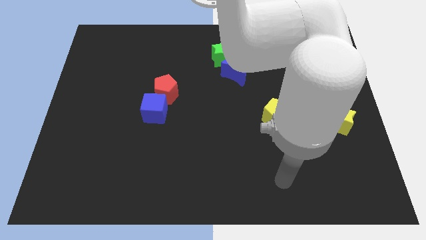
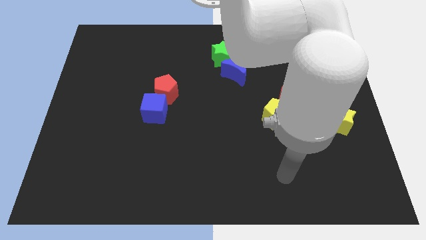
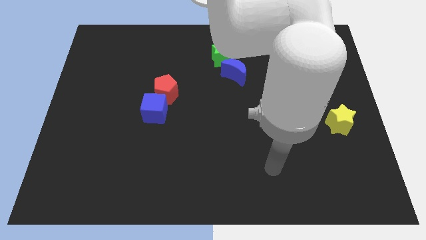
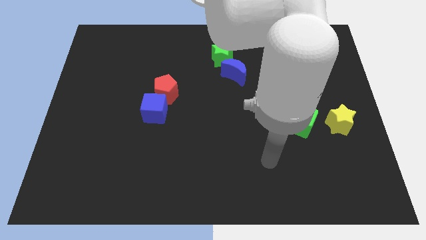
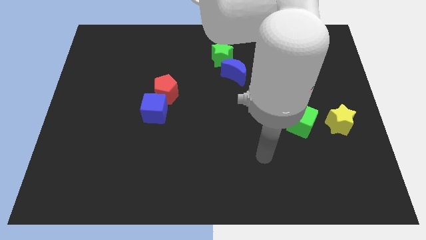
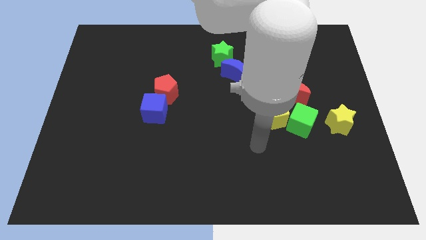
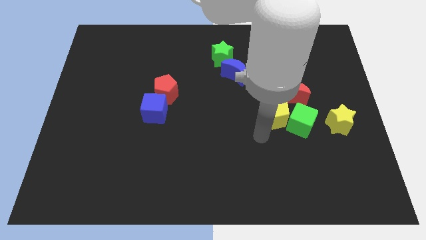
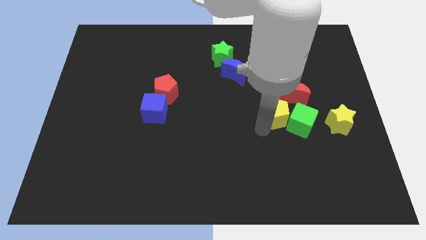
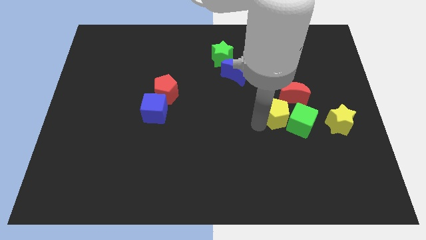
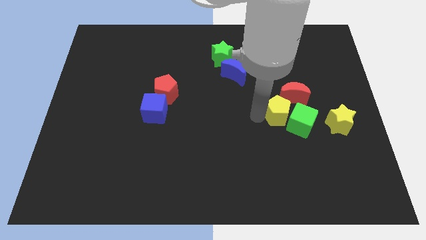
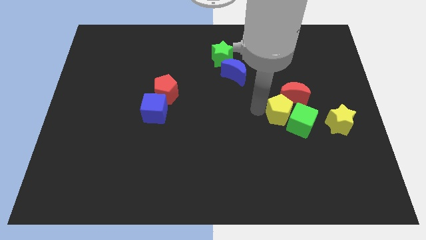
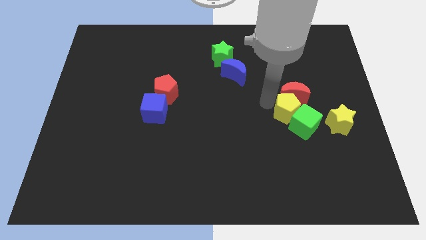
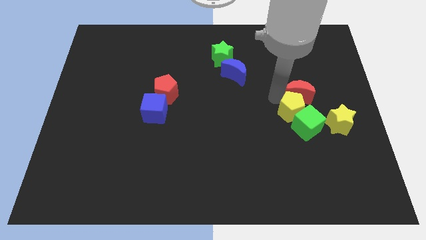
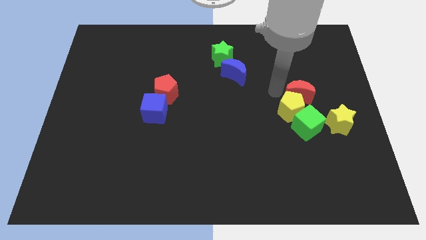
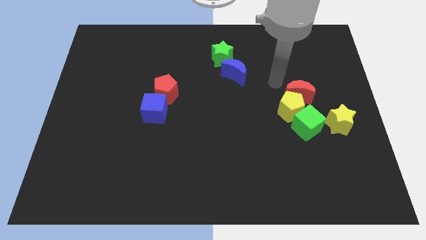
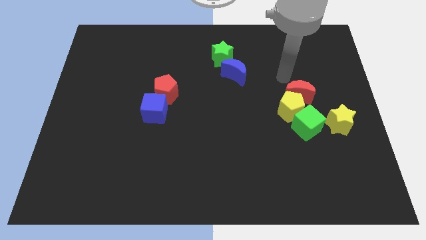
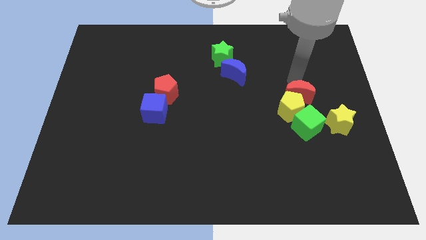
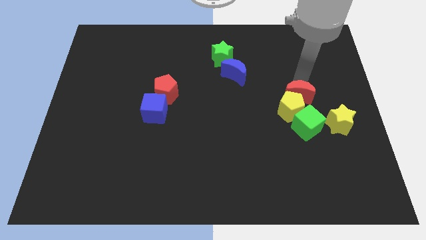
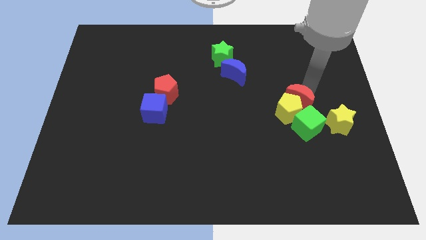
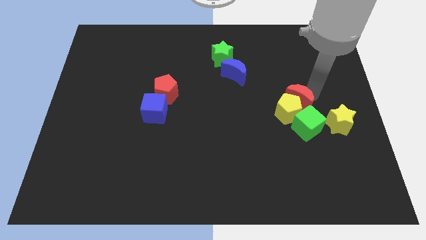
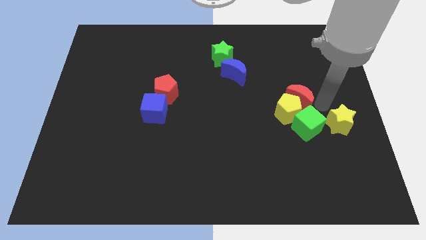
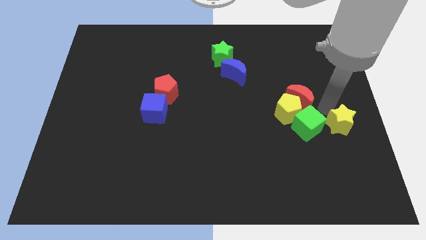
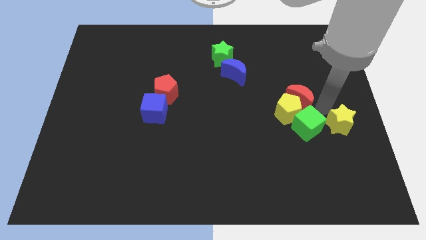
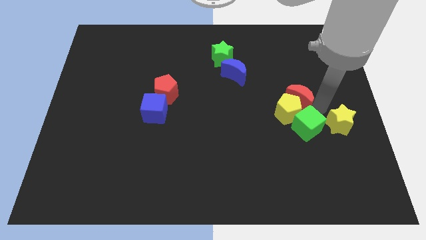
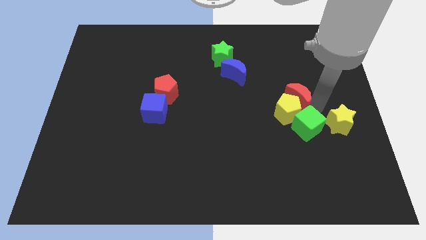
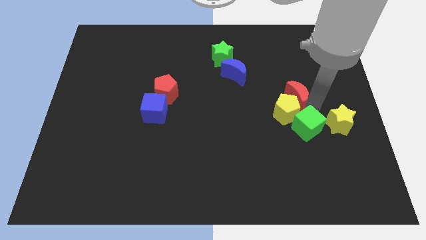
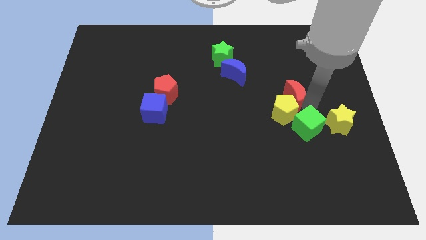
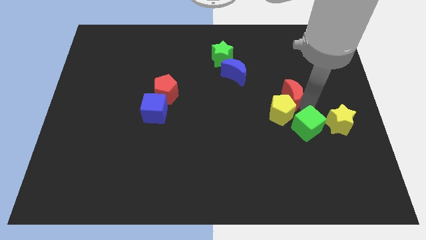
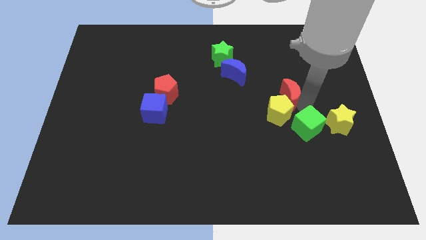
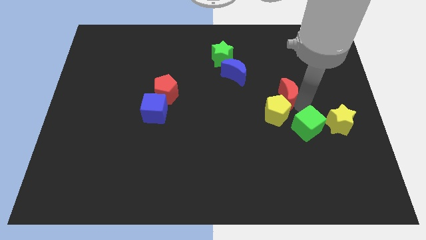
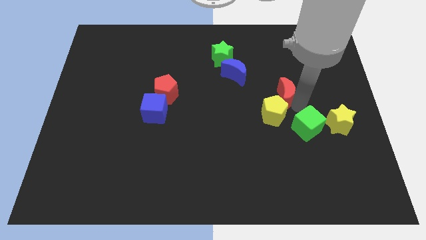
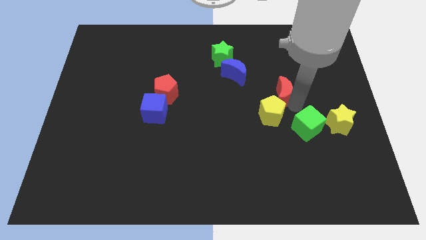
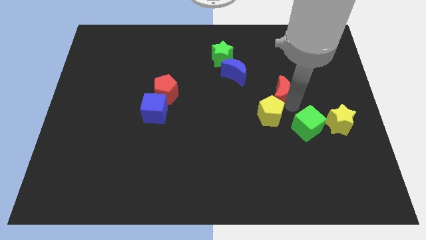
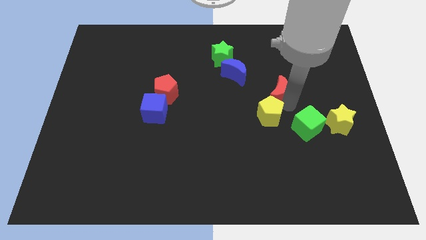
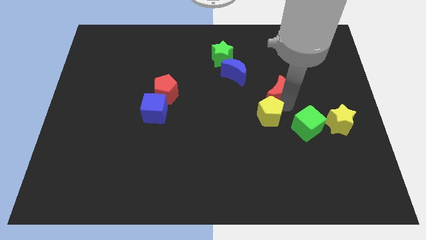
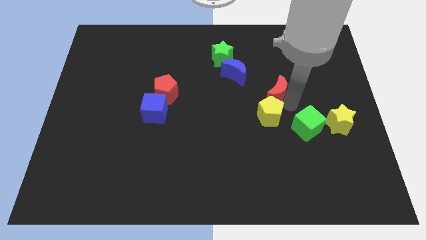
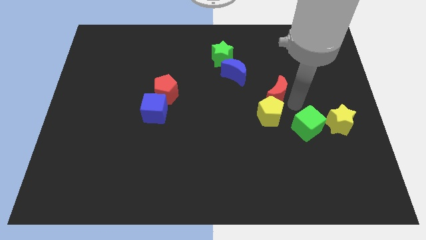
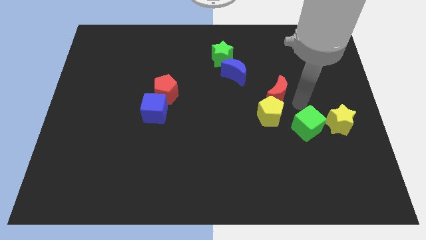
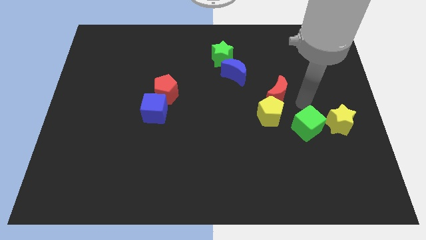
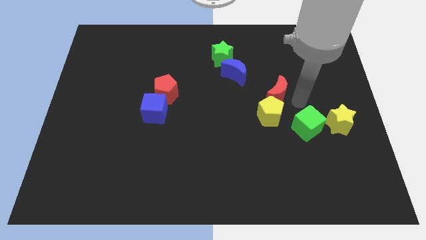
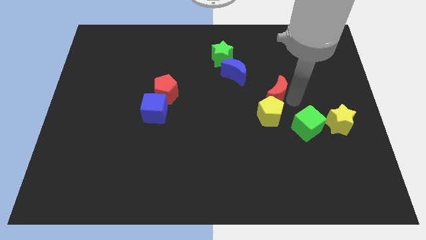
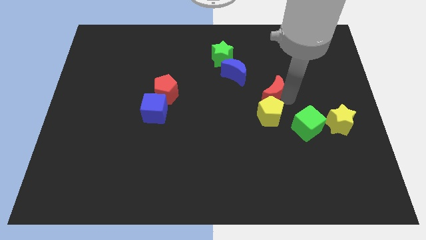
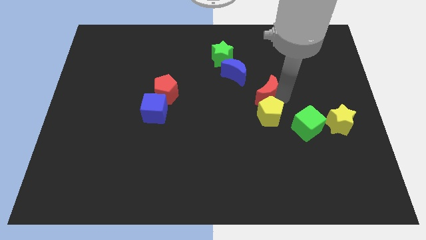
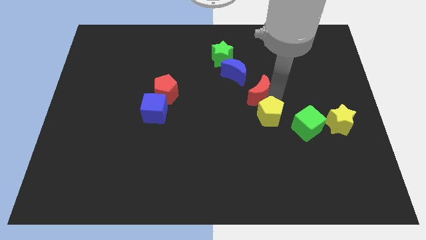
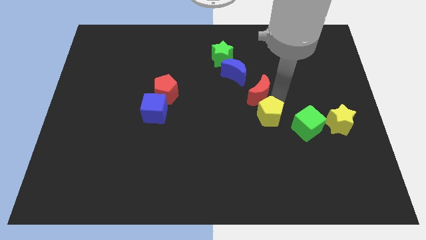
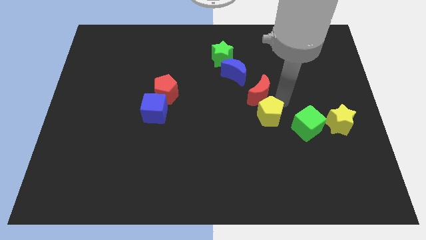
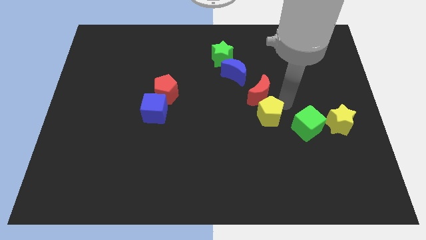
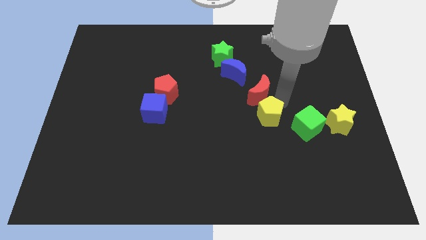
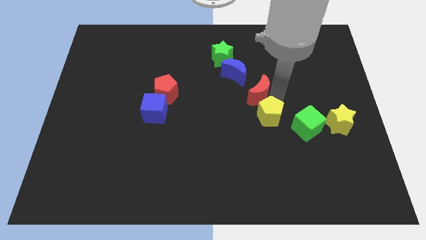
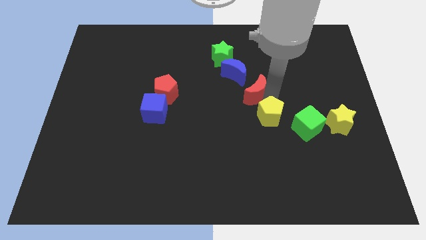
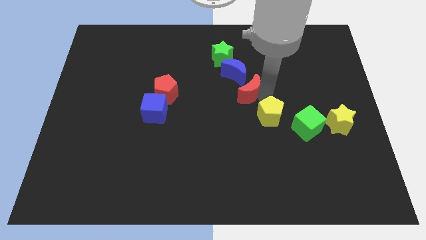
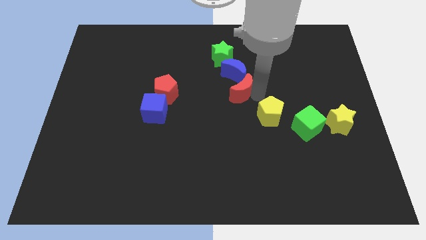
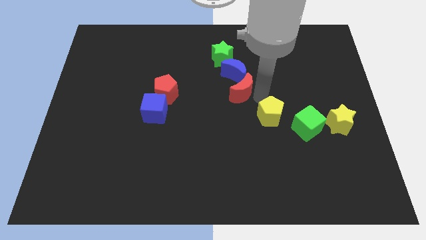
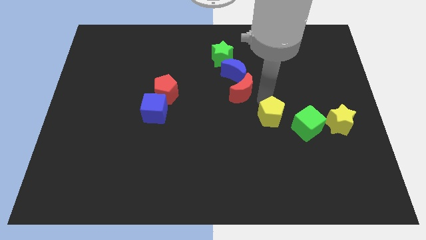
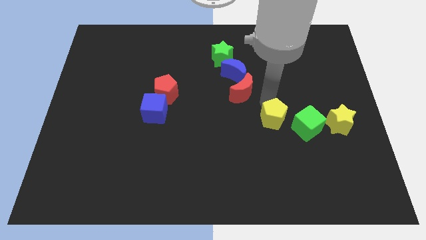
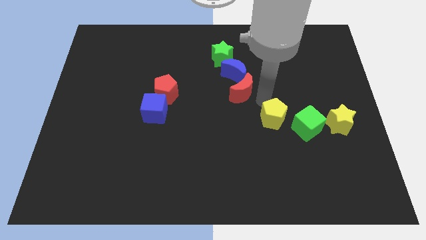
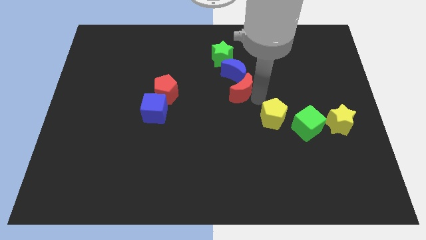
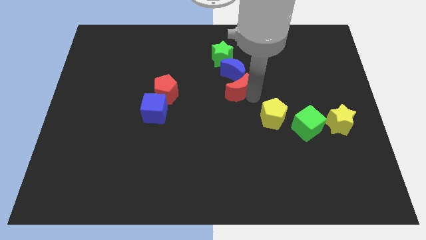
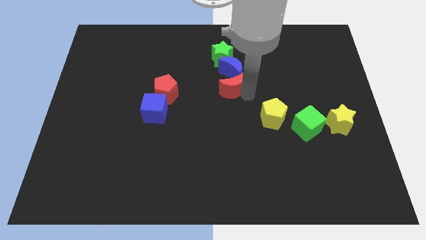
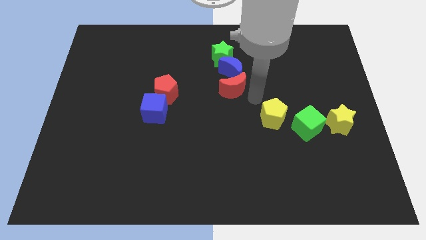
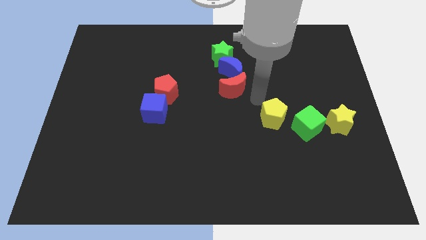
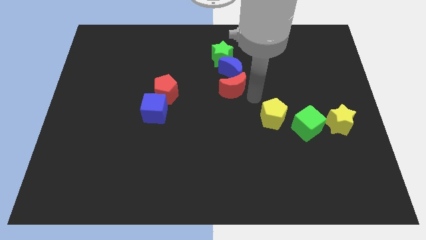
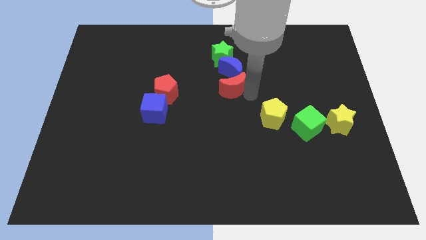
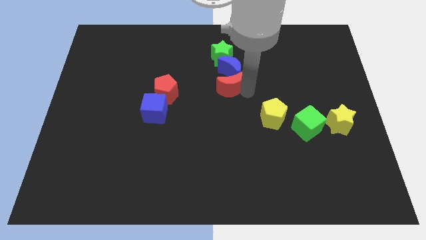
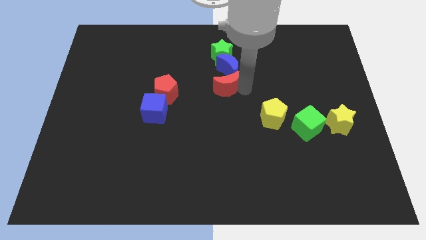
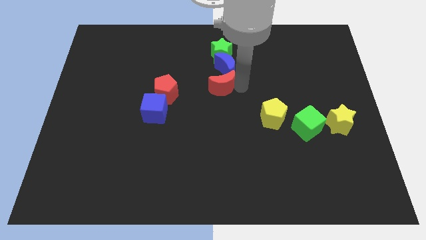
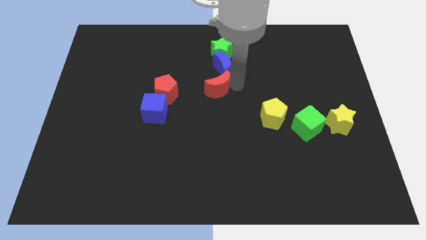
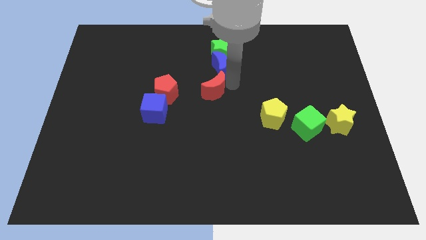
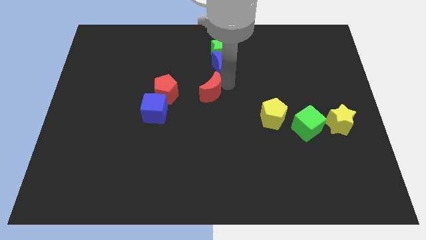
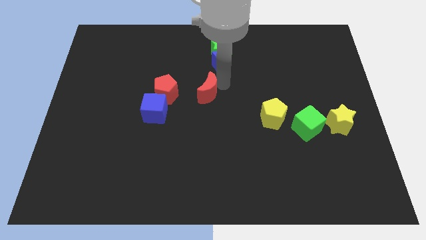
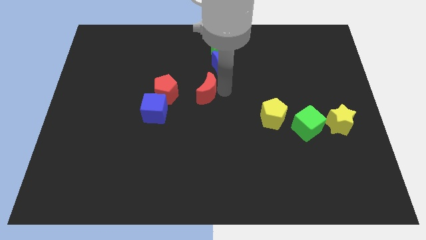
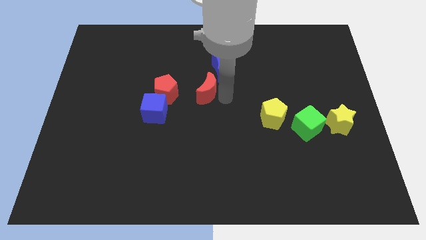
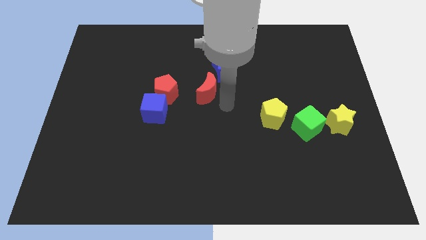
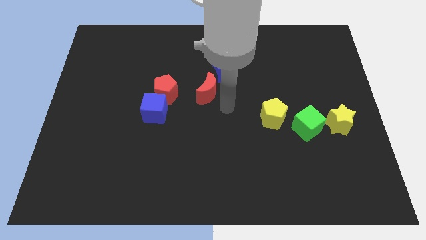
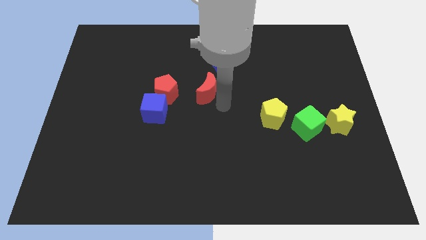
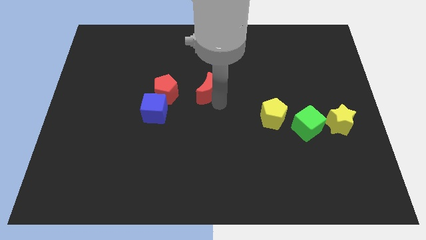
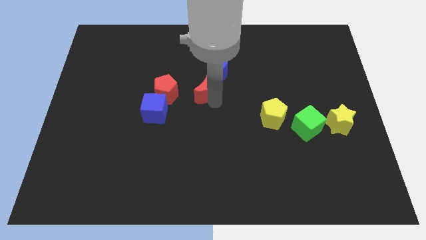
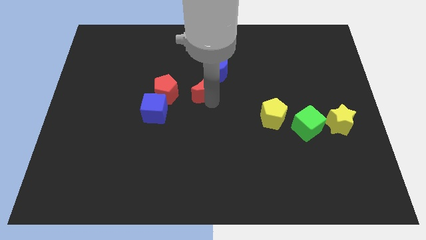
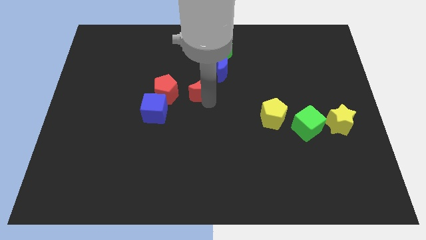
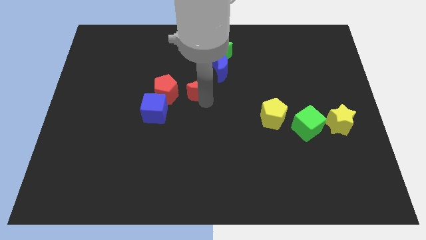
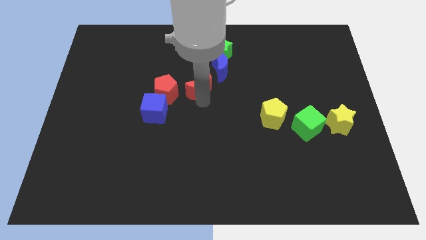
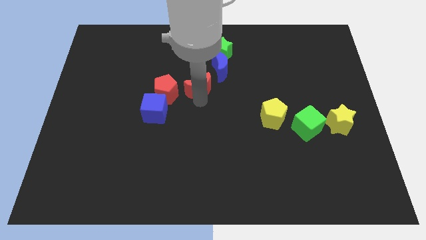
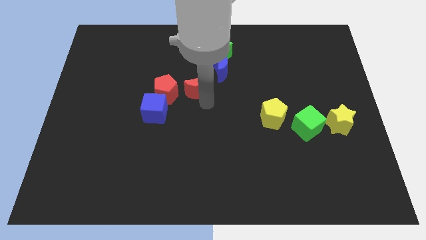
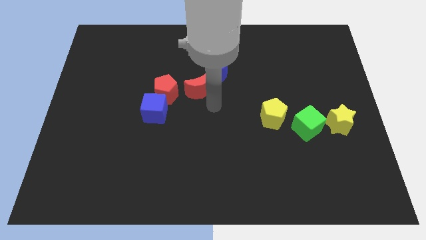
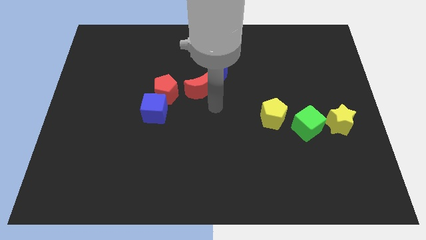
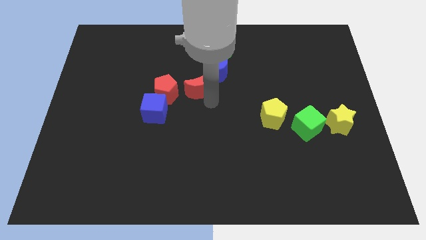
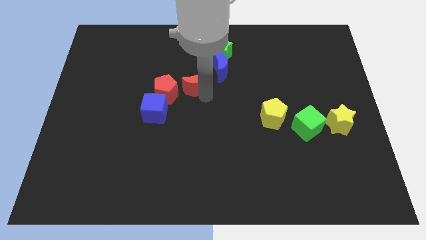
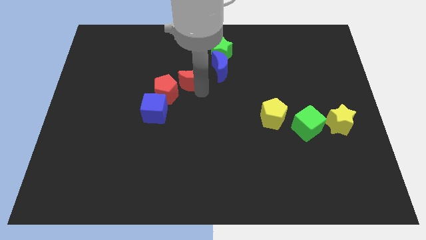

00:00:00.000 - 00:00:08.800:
slide the red moon just left of the blue moon
